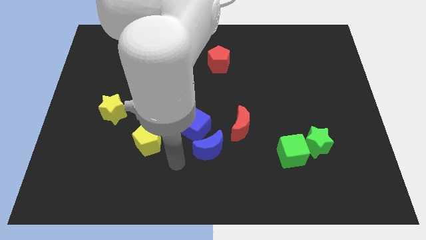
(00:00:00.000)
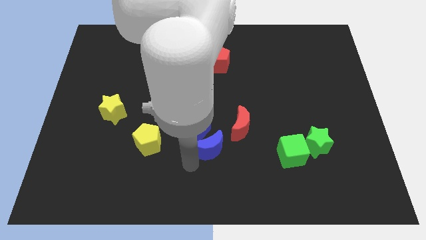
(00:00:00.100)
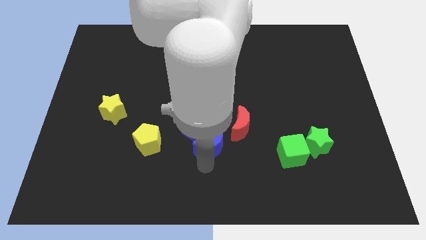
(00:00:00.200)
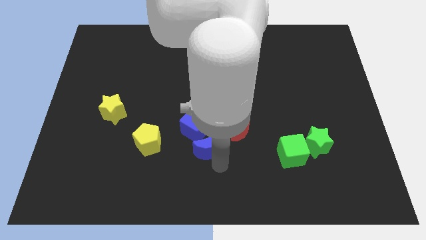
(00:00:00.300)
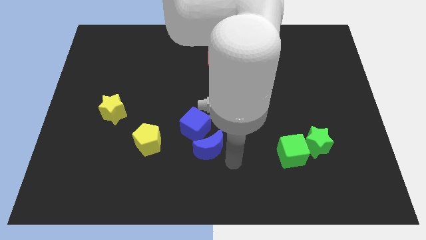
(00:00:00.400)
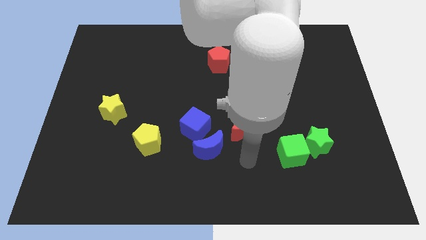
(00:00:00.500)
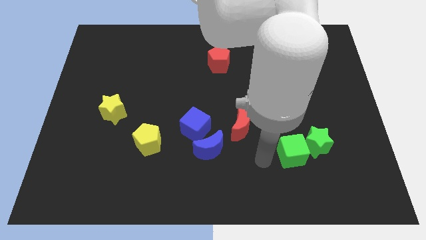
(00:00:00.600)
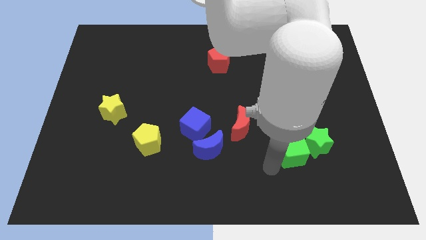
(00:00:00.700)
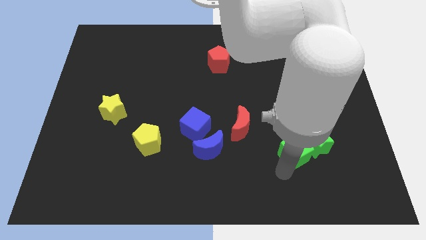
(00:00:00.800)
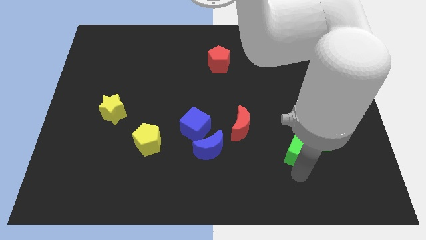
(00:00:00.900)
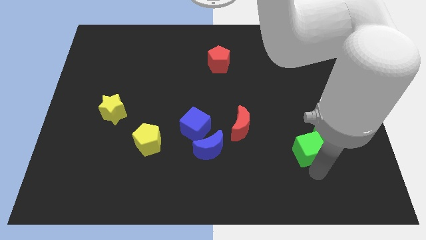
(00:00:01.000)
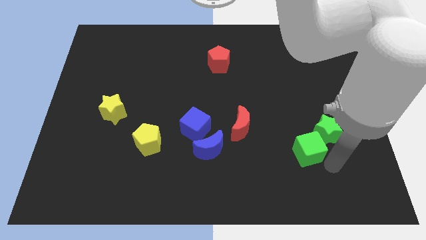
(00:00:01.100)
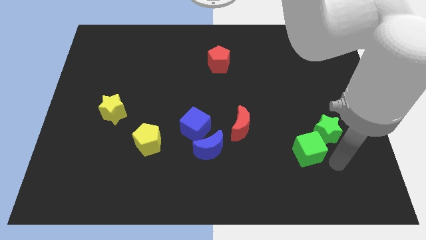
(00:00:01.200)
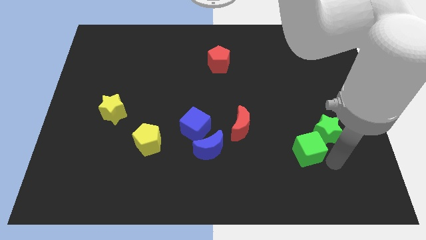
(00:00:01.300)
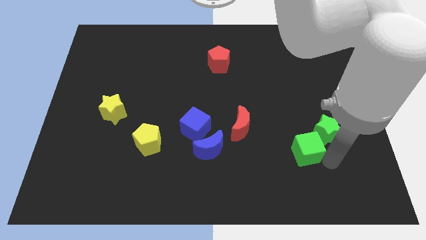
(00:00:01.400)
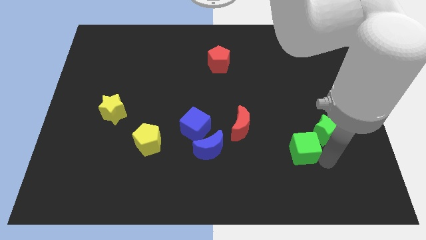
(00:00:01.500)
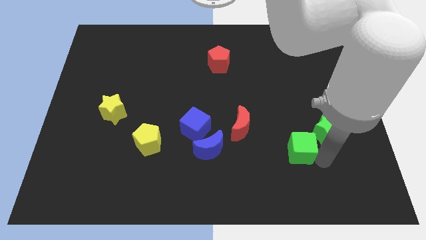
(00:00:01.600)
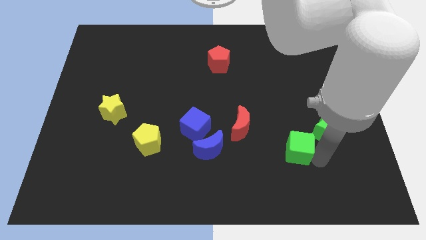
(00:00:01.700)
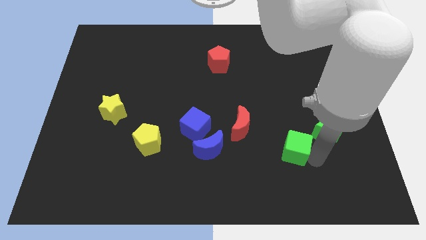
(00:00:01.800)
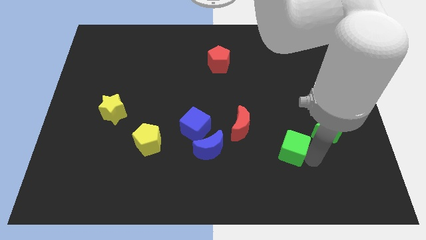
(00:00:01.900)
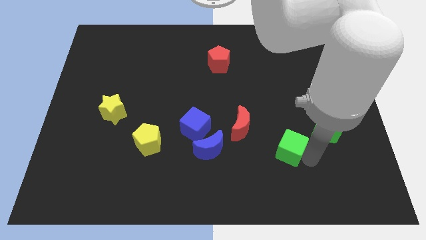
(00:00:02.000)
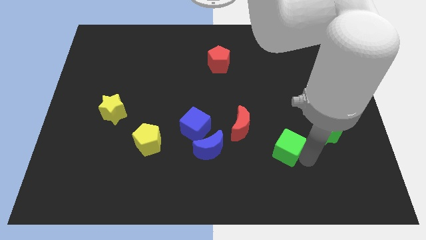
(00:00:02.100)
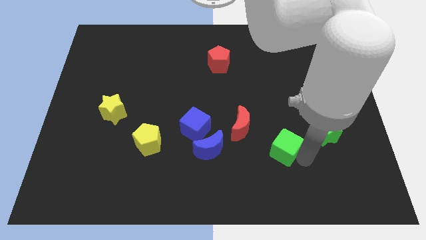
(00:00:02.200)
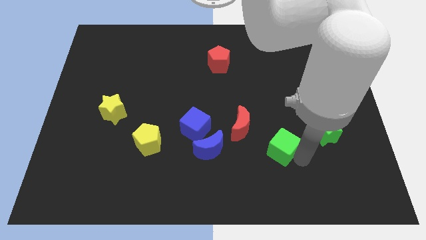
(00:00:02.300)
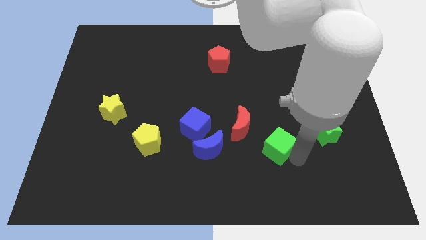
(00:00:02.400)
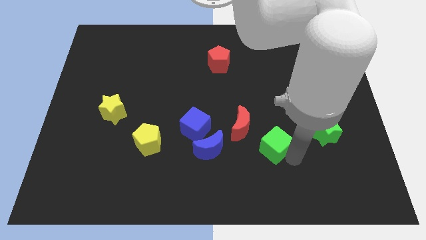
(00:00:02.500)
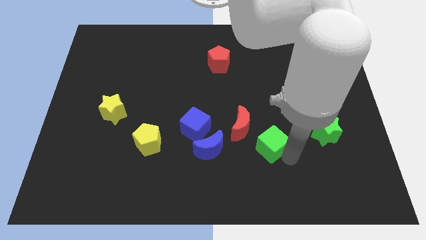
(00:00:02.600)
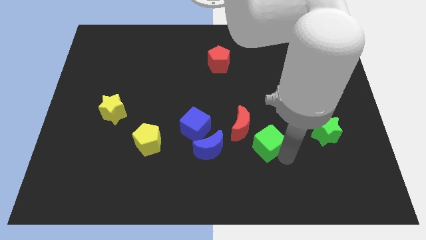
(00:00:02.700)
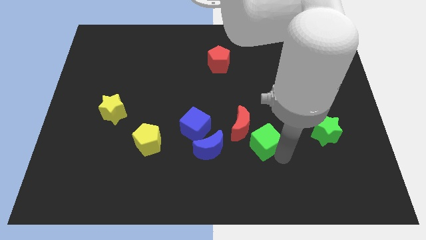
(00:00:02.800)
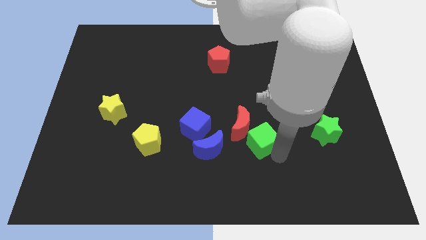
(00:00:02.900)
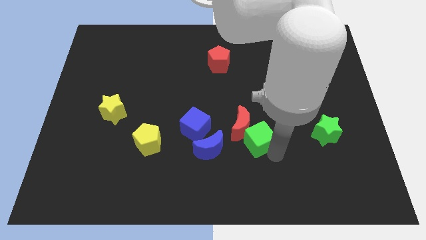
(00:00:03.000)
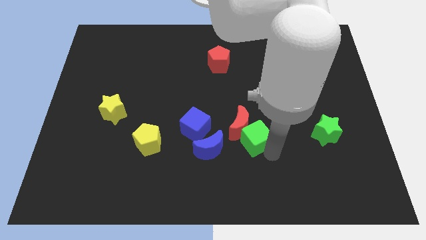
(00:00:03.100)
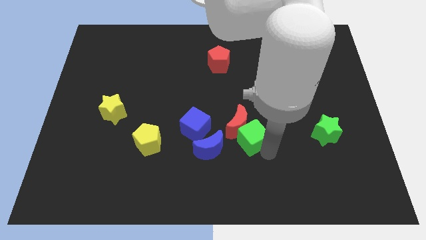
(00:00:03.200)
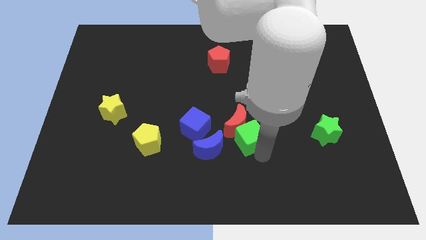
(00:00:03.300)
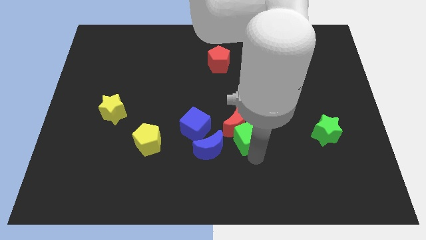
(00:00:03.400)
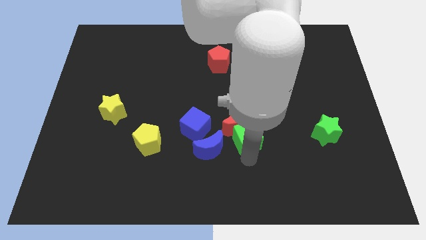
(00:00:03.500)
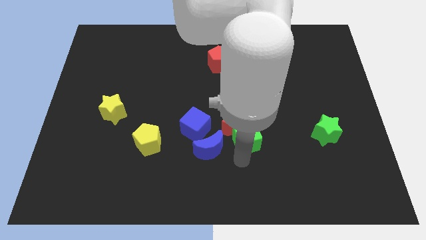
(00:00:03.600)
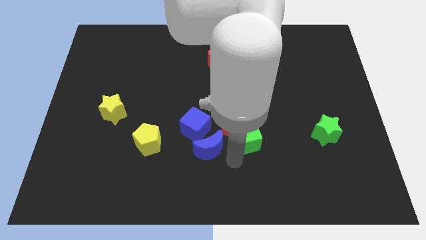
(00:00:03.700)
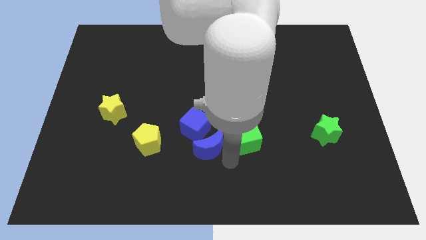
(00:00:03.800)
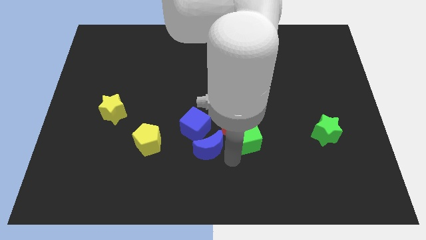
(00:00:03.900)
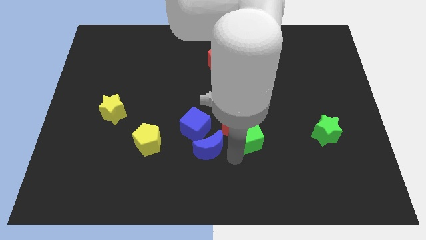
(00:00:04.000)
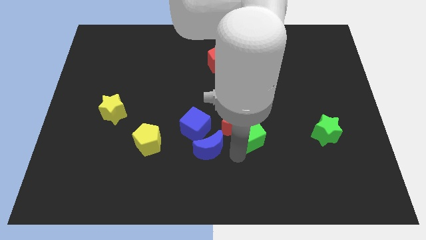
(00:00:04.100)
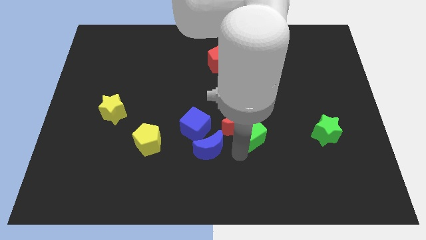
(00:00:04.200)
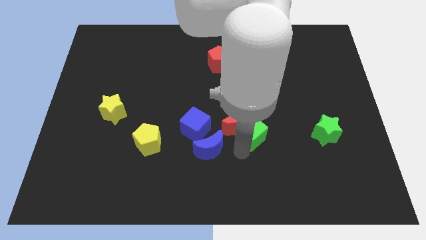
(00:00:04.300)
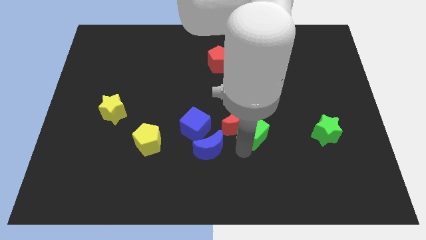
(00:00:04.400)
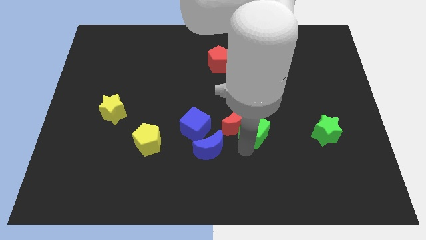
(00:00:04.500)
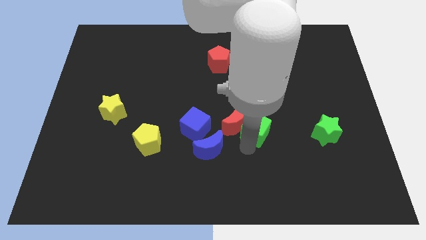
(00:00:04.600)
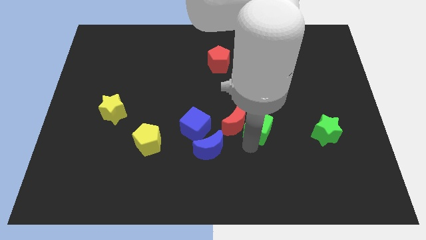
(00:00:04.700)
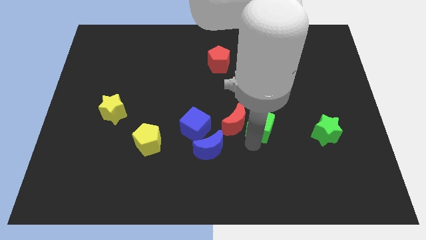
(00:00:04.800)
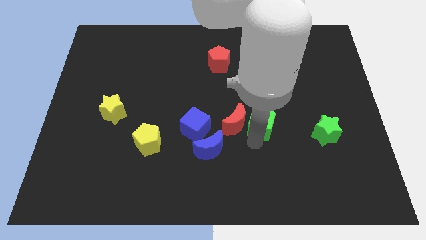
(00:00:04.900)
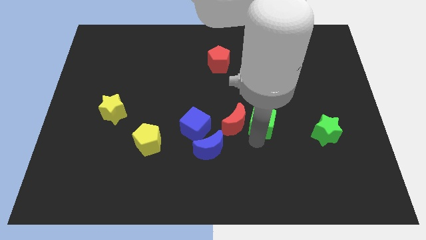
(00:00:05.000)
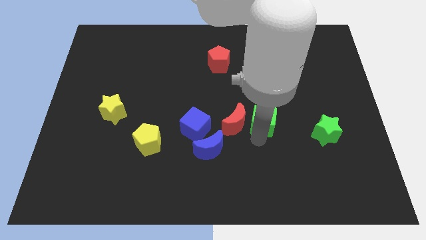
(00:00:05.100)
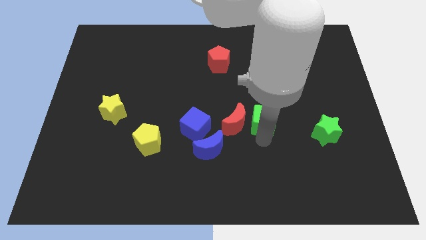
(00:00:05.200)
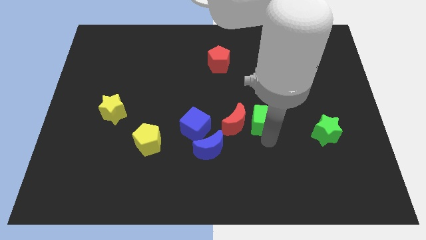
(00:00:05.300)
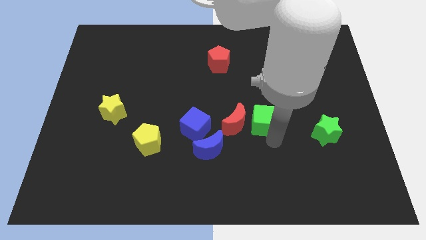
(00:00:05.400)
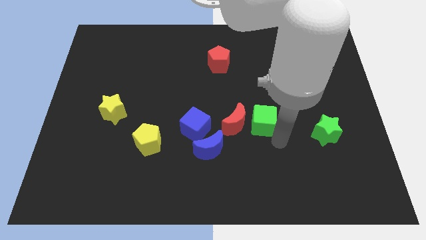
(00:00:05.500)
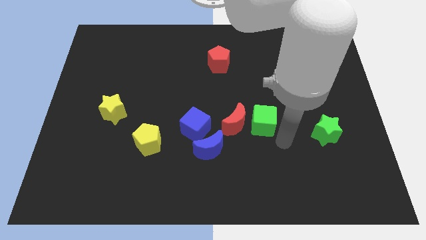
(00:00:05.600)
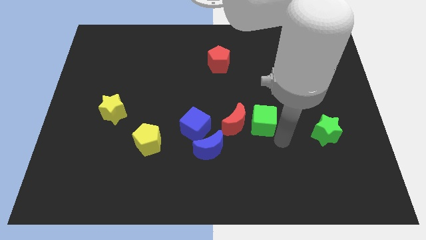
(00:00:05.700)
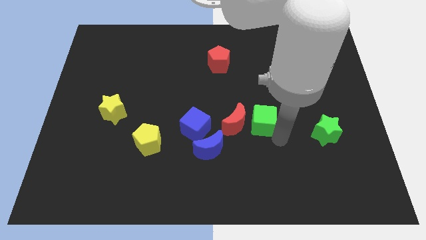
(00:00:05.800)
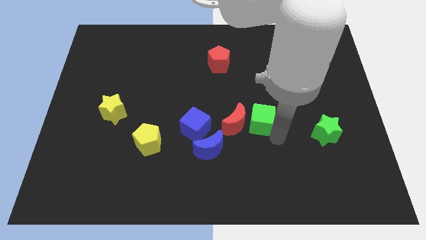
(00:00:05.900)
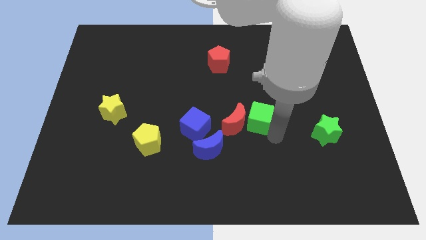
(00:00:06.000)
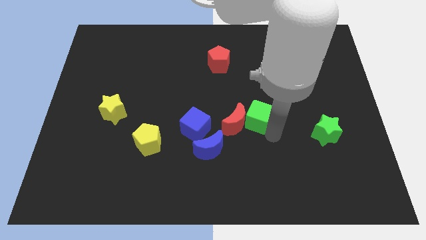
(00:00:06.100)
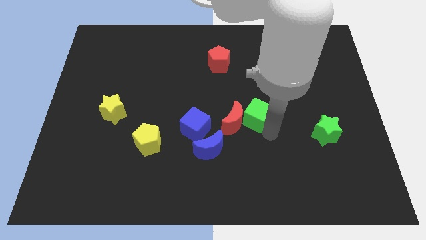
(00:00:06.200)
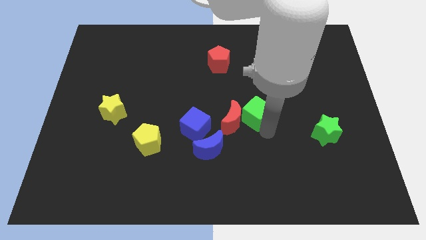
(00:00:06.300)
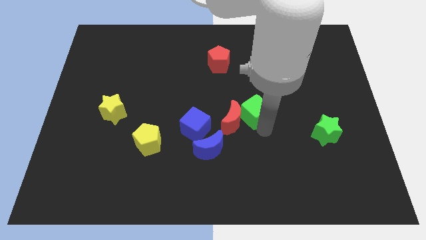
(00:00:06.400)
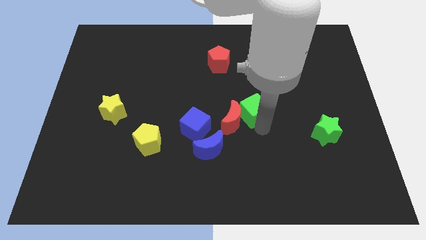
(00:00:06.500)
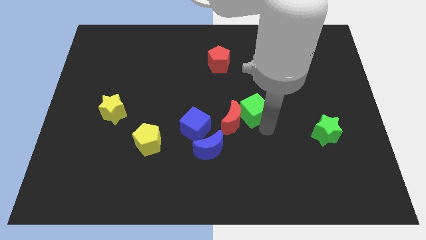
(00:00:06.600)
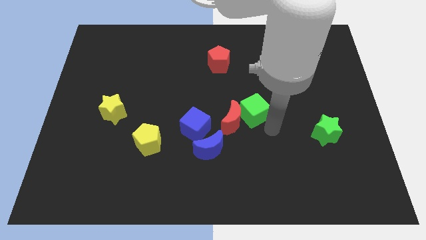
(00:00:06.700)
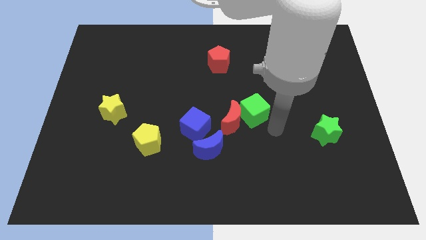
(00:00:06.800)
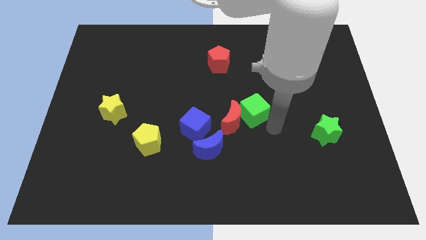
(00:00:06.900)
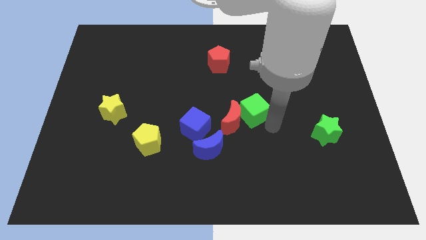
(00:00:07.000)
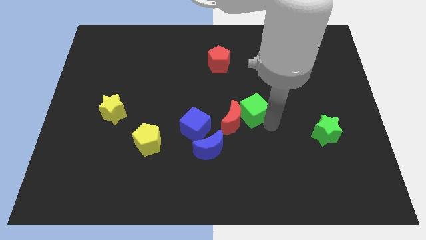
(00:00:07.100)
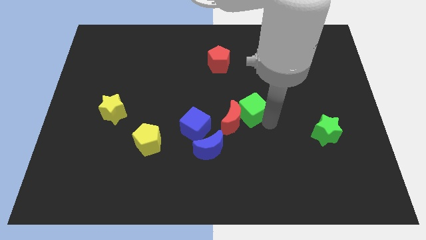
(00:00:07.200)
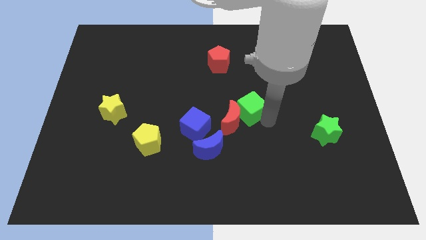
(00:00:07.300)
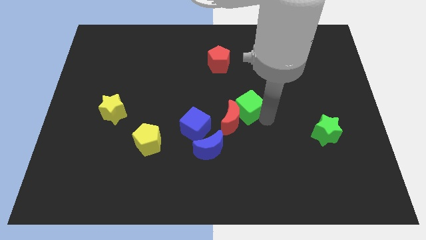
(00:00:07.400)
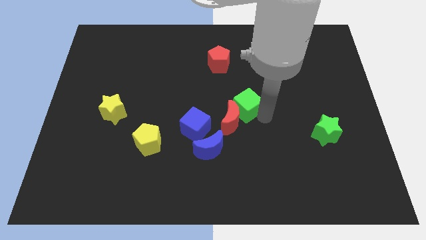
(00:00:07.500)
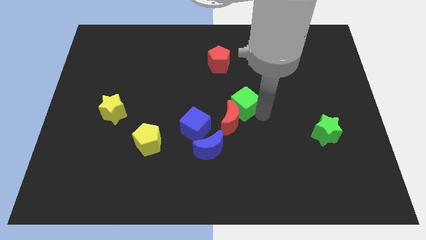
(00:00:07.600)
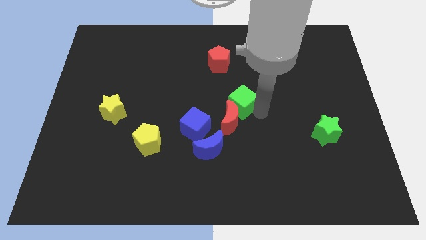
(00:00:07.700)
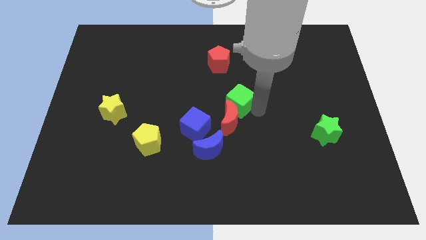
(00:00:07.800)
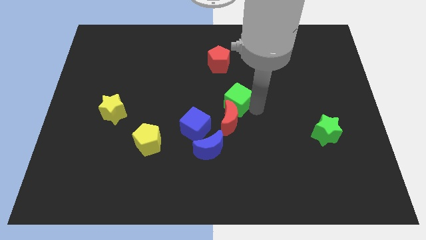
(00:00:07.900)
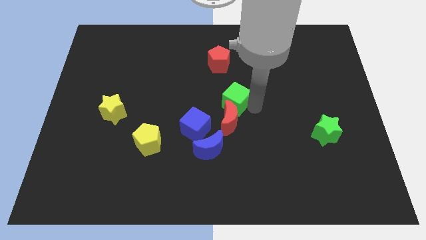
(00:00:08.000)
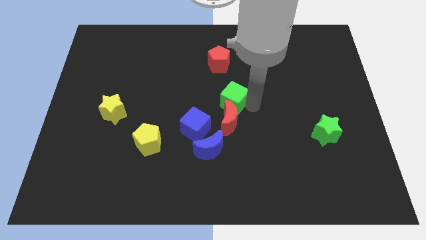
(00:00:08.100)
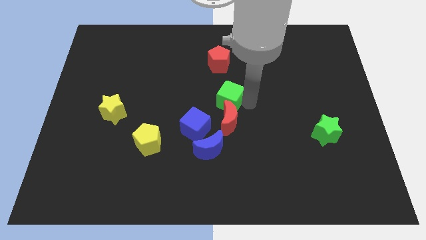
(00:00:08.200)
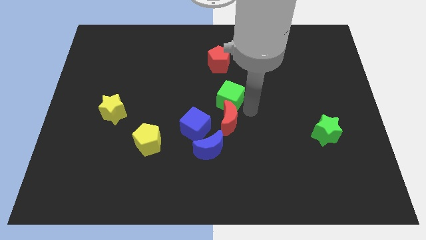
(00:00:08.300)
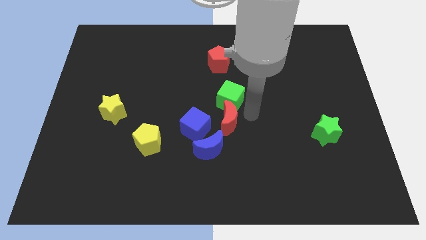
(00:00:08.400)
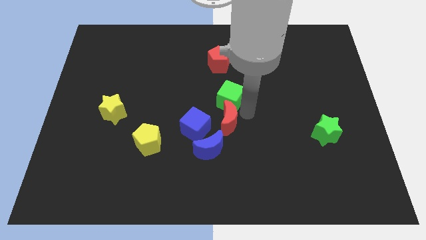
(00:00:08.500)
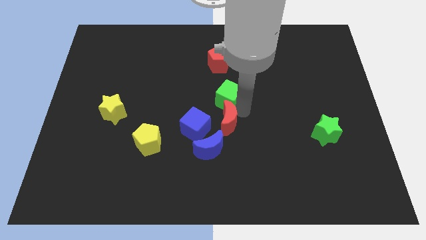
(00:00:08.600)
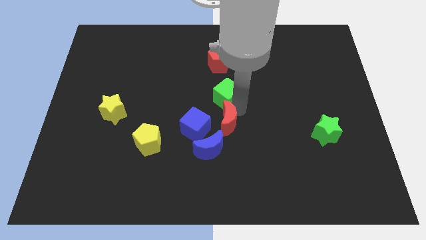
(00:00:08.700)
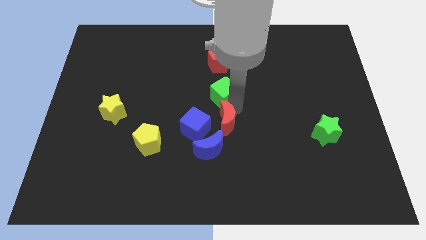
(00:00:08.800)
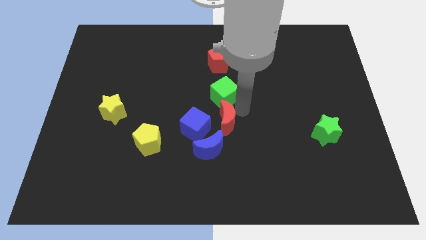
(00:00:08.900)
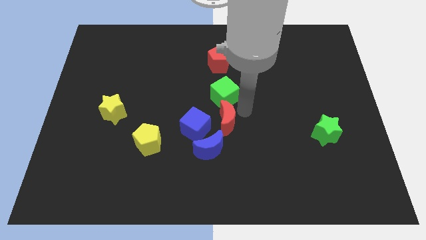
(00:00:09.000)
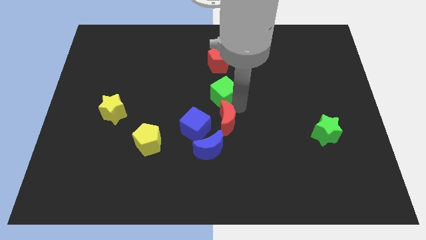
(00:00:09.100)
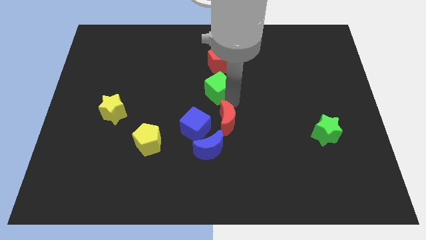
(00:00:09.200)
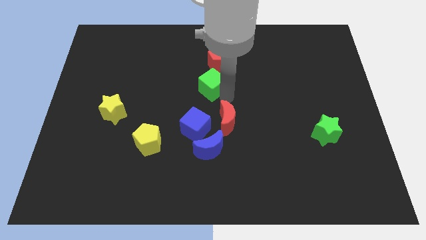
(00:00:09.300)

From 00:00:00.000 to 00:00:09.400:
push the green cube to the bottom left side of the red pentagon
